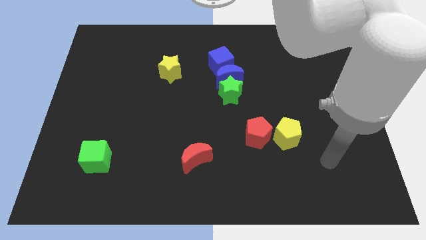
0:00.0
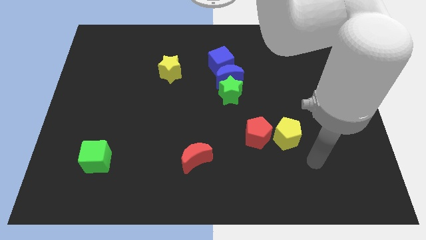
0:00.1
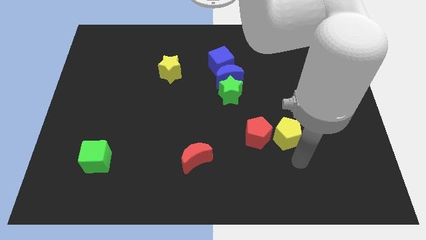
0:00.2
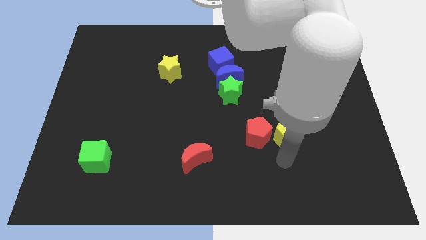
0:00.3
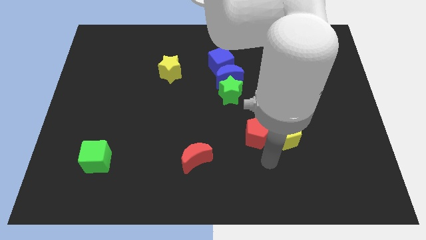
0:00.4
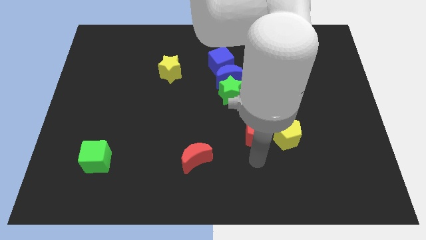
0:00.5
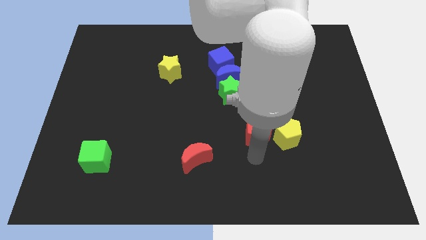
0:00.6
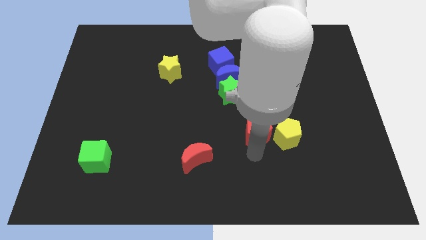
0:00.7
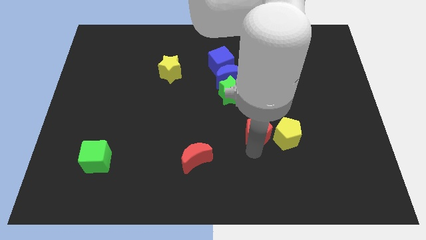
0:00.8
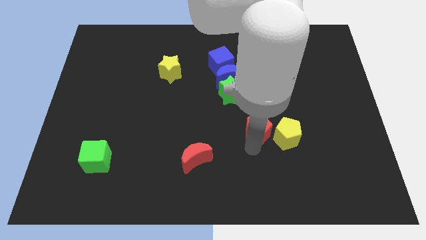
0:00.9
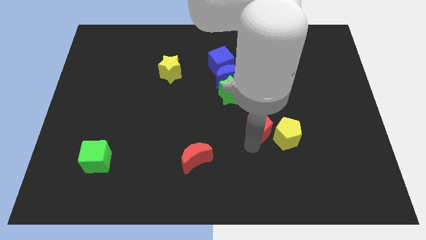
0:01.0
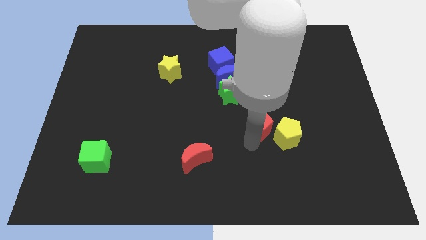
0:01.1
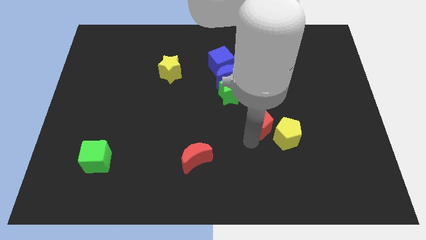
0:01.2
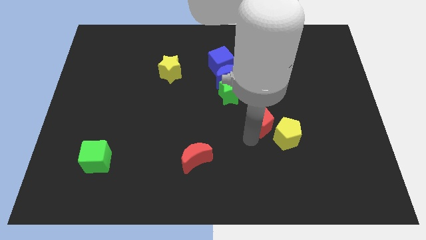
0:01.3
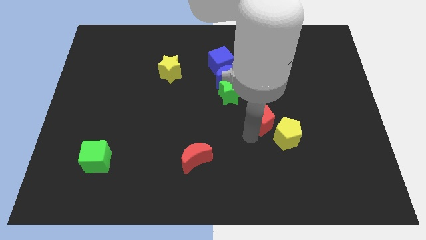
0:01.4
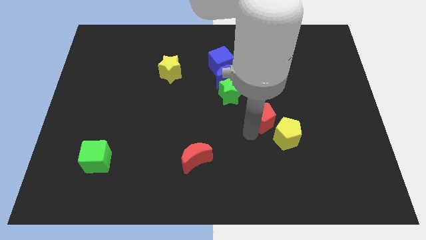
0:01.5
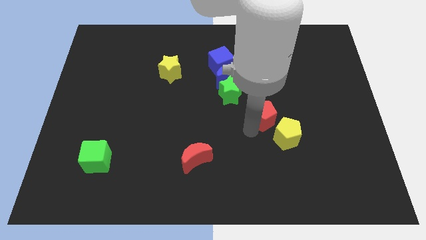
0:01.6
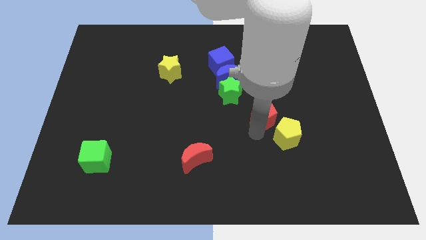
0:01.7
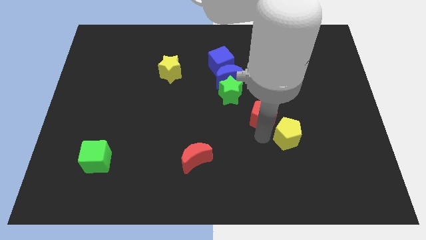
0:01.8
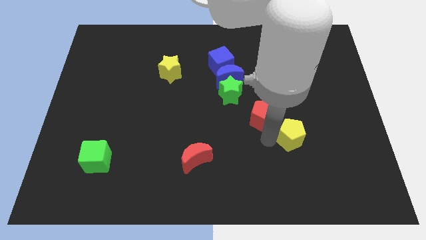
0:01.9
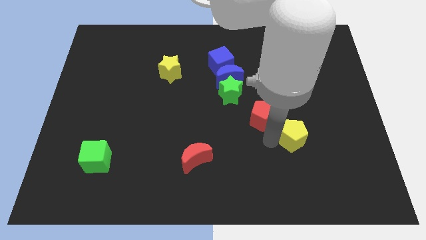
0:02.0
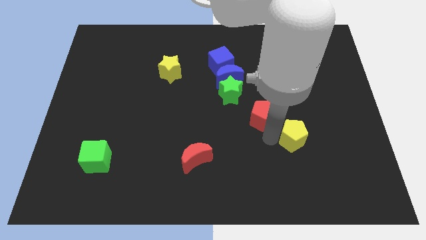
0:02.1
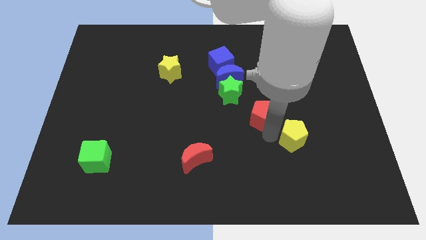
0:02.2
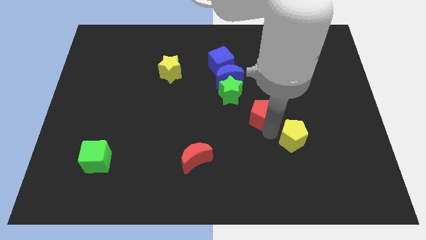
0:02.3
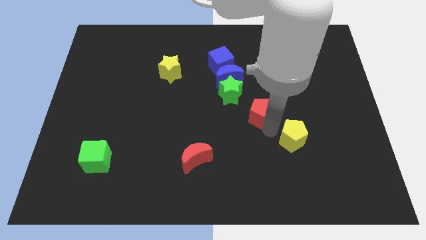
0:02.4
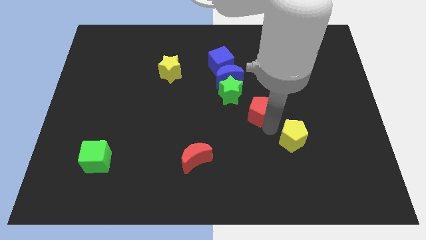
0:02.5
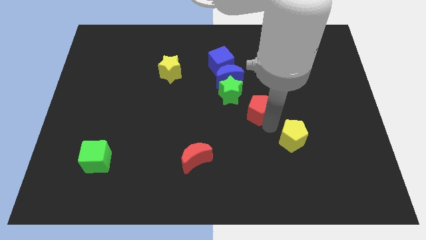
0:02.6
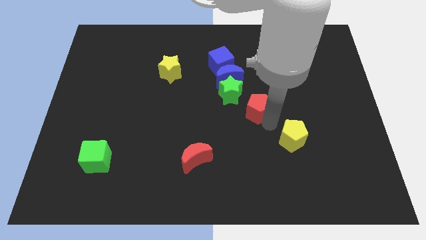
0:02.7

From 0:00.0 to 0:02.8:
slightly push the red pentagon up

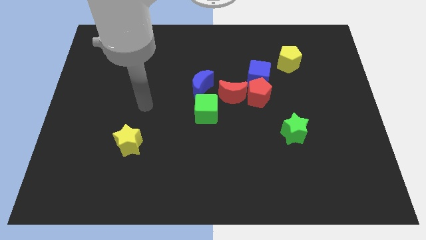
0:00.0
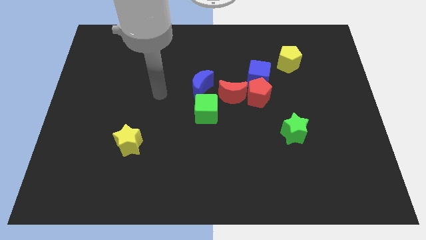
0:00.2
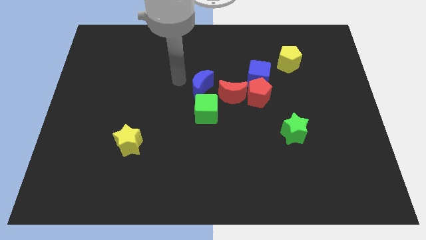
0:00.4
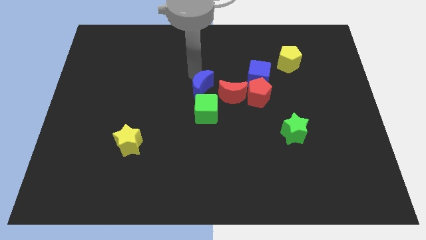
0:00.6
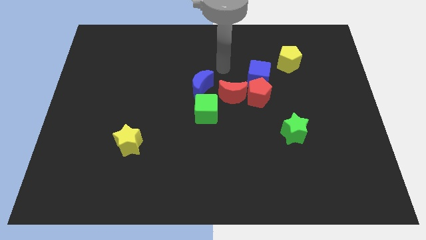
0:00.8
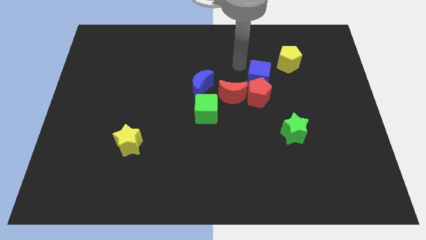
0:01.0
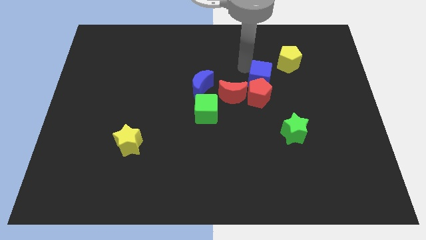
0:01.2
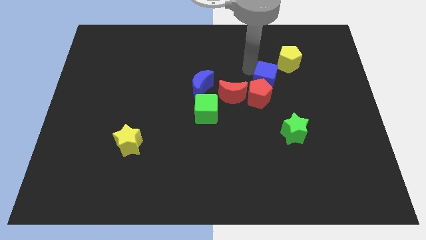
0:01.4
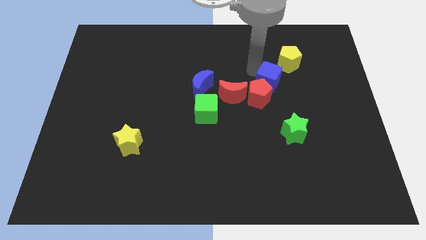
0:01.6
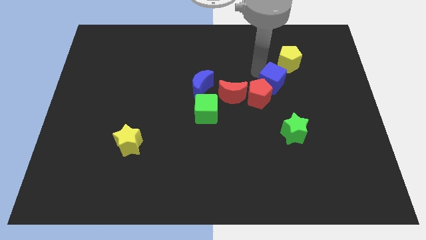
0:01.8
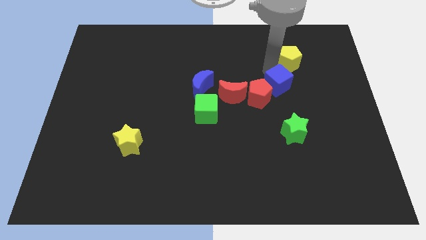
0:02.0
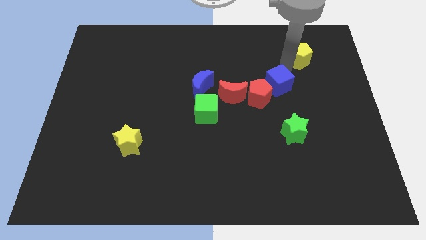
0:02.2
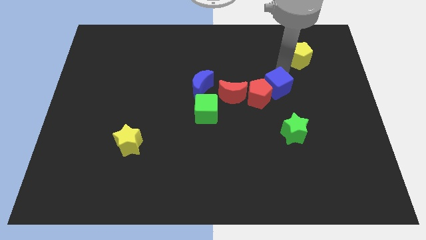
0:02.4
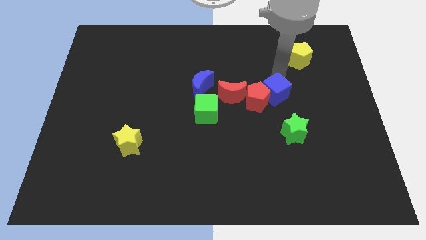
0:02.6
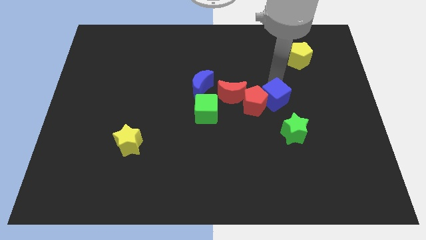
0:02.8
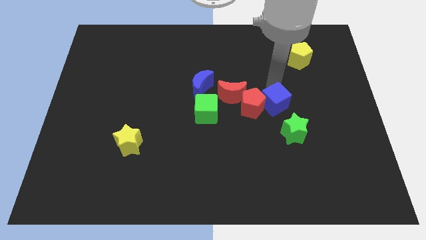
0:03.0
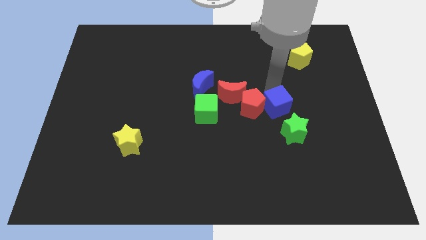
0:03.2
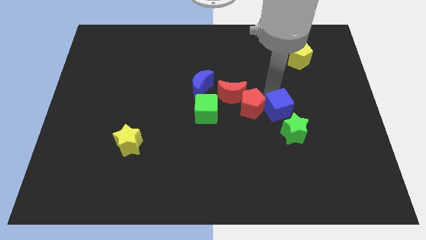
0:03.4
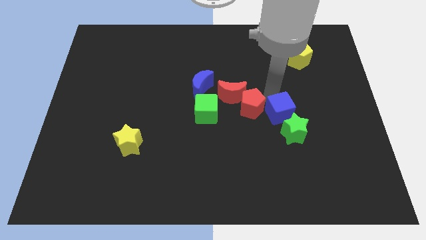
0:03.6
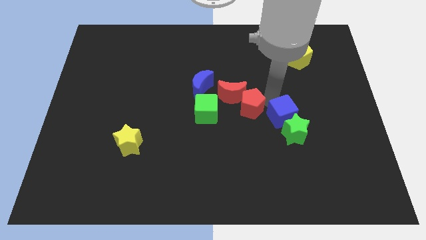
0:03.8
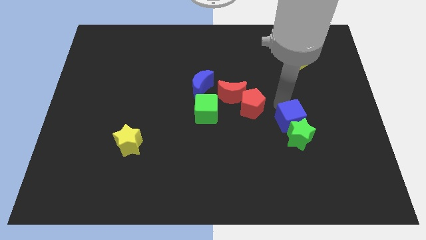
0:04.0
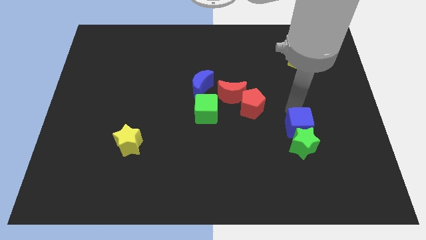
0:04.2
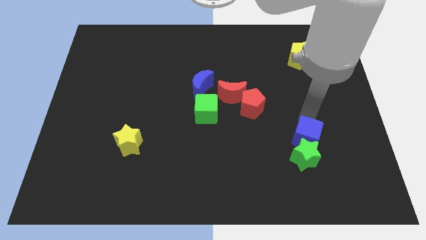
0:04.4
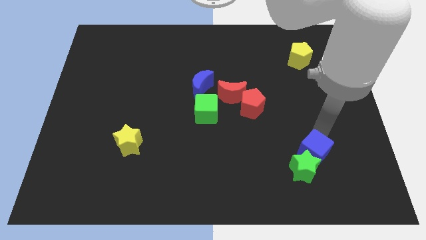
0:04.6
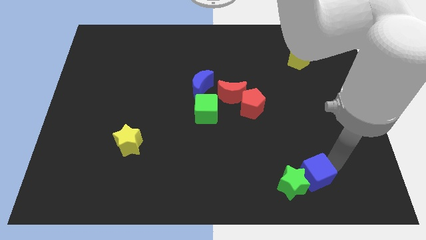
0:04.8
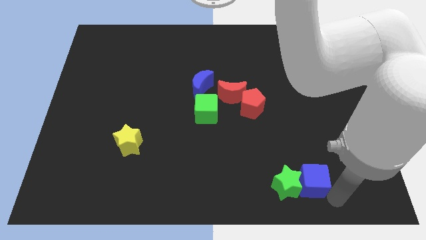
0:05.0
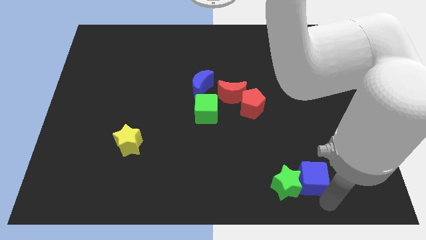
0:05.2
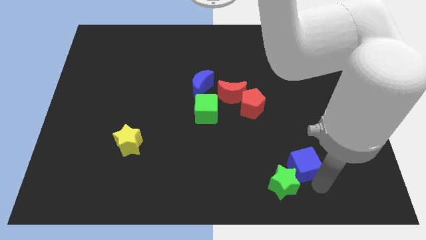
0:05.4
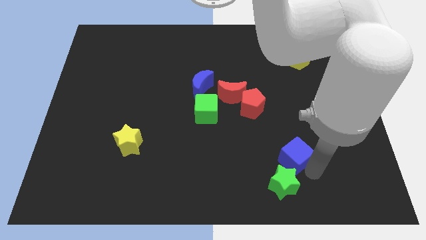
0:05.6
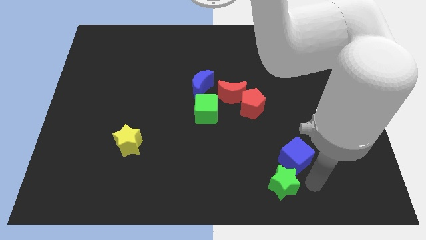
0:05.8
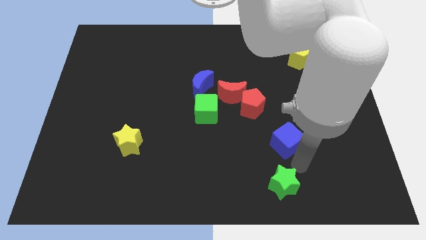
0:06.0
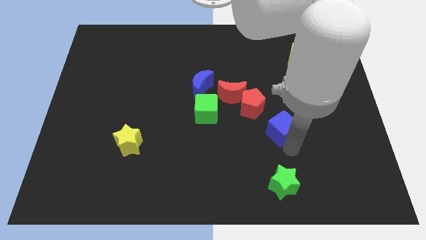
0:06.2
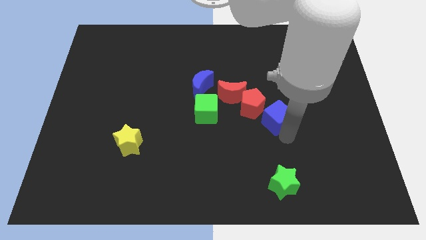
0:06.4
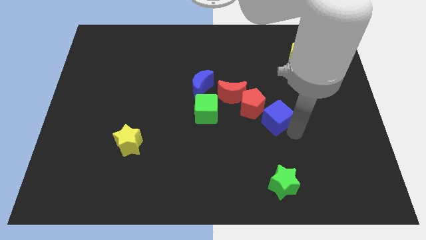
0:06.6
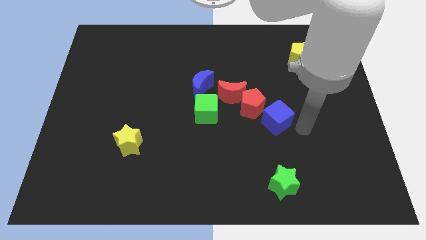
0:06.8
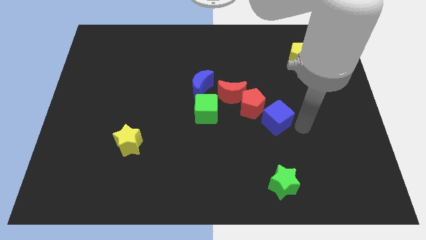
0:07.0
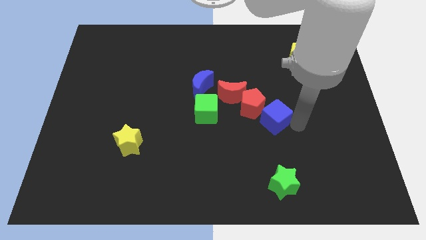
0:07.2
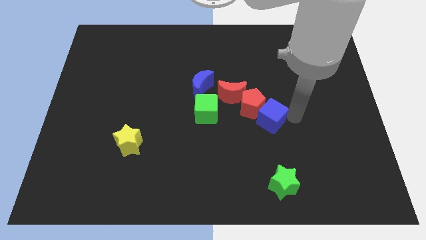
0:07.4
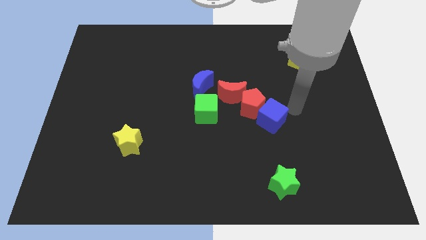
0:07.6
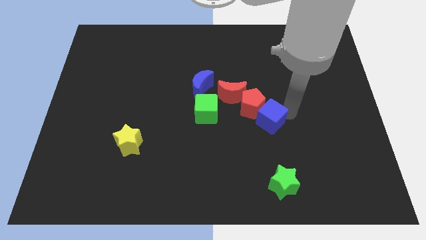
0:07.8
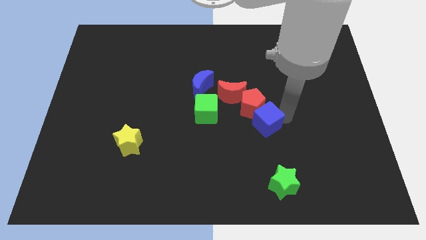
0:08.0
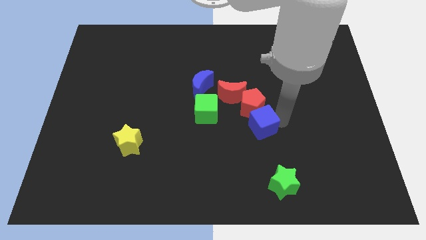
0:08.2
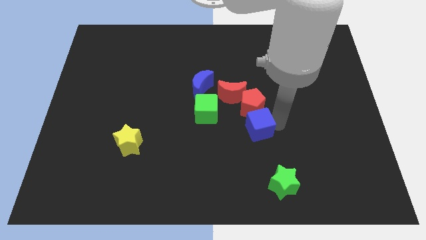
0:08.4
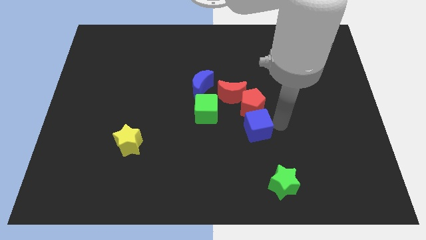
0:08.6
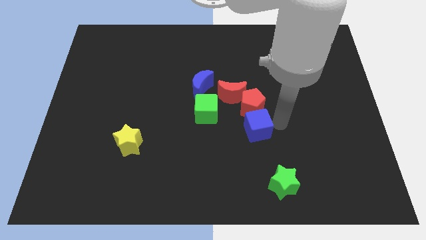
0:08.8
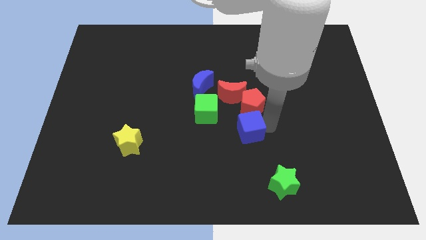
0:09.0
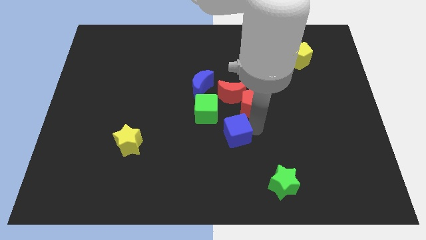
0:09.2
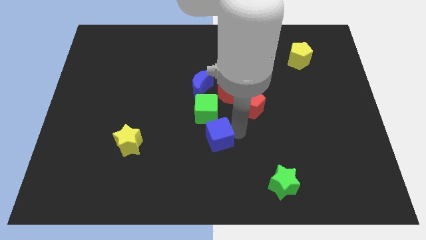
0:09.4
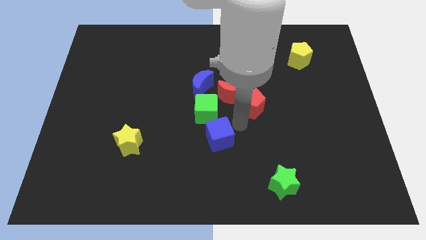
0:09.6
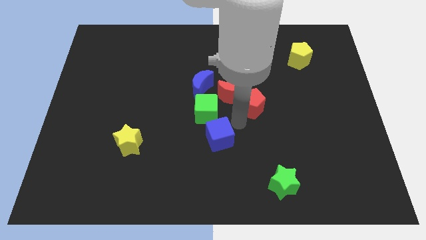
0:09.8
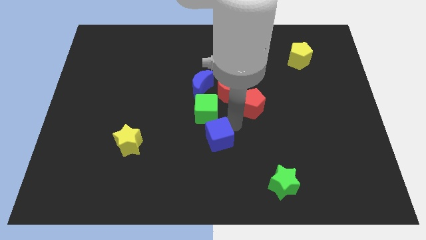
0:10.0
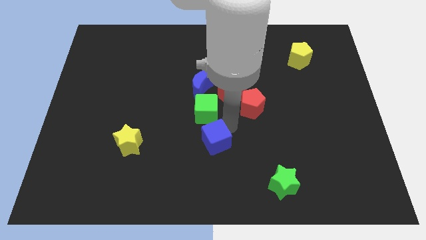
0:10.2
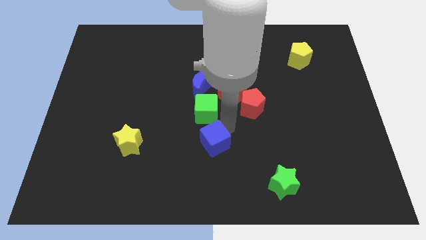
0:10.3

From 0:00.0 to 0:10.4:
move the blue cube down and to the left
